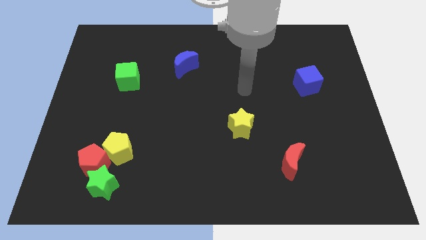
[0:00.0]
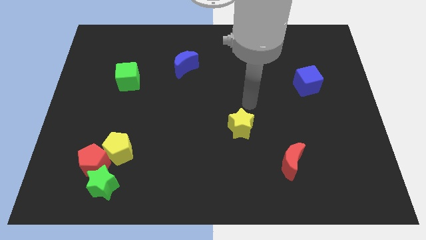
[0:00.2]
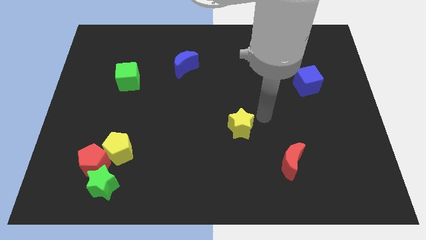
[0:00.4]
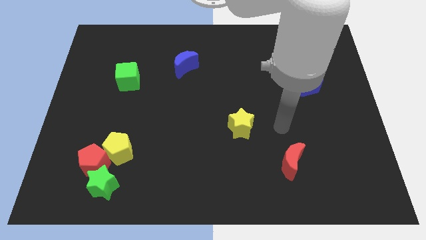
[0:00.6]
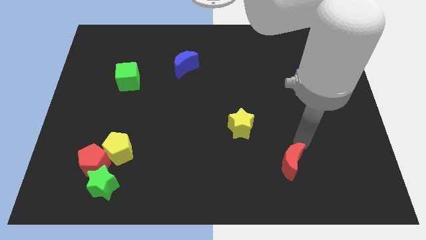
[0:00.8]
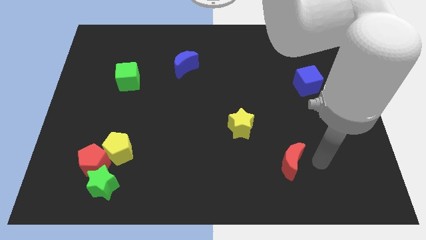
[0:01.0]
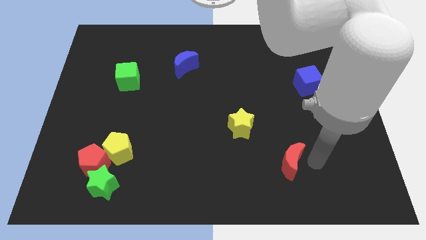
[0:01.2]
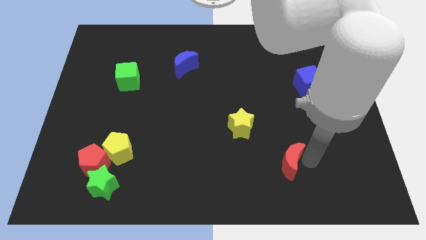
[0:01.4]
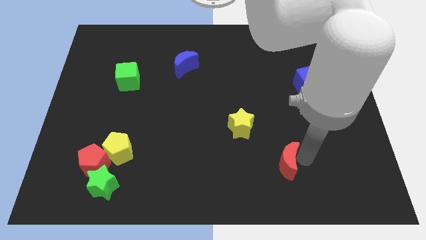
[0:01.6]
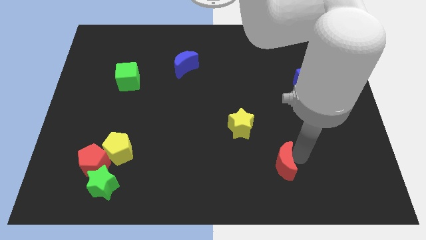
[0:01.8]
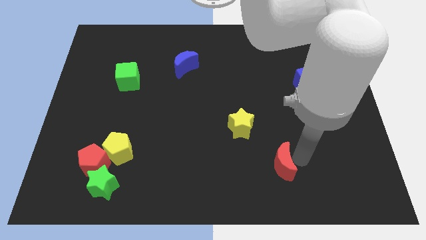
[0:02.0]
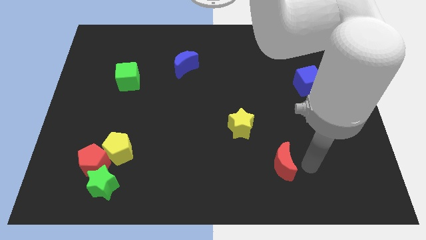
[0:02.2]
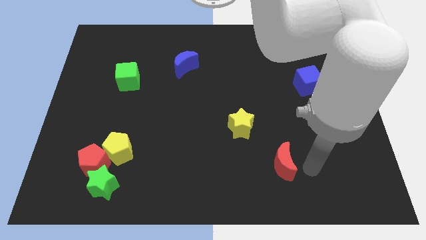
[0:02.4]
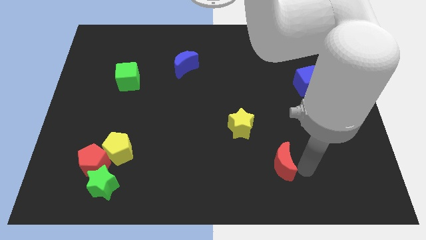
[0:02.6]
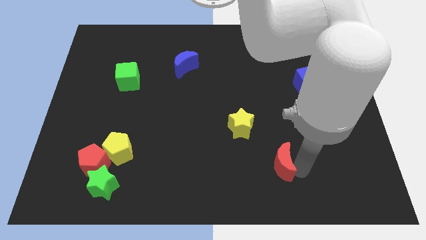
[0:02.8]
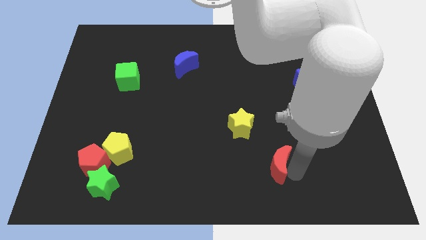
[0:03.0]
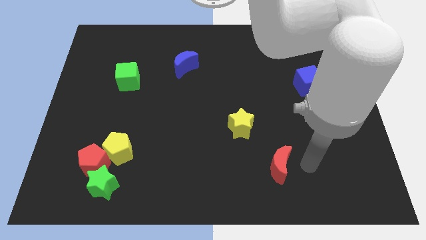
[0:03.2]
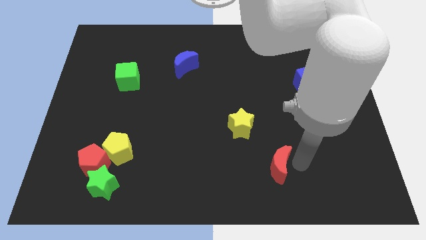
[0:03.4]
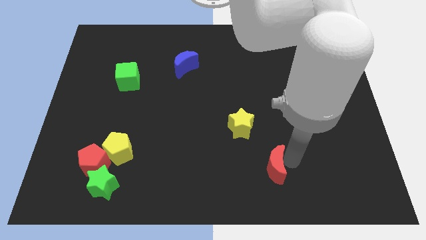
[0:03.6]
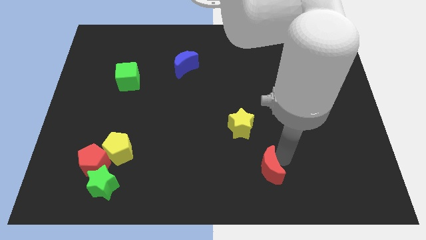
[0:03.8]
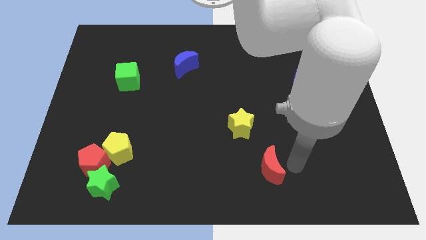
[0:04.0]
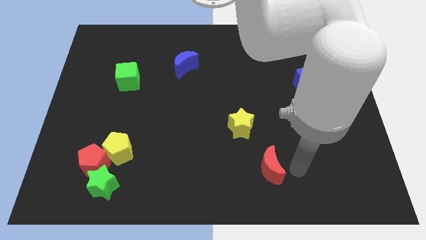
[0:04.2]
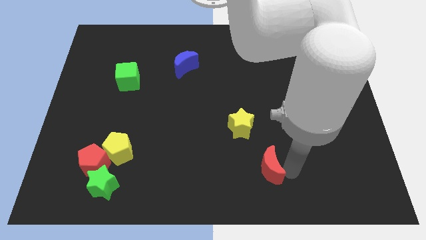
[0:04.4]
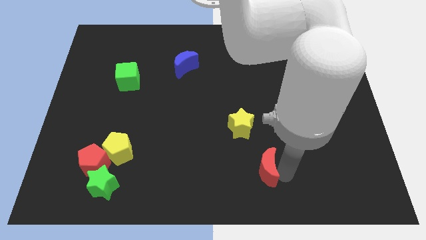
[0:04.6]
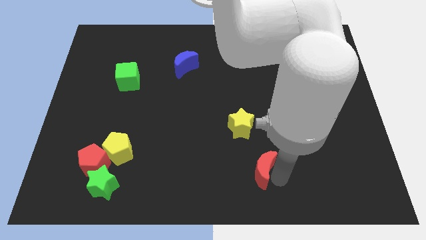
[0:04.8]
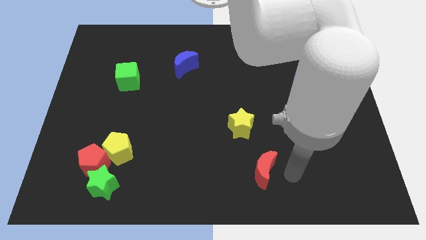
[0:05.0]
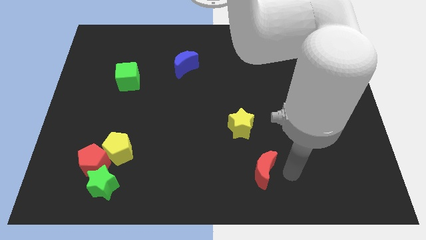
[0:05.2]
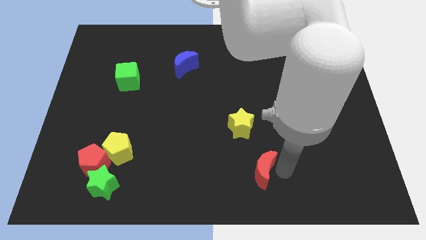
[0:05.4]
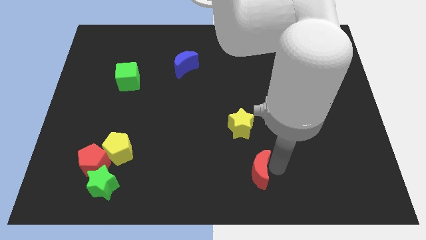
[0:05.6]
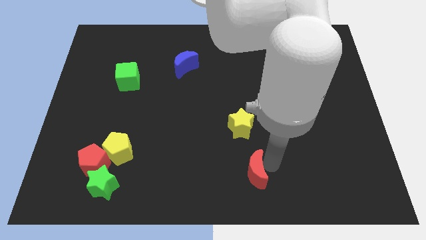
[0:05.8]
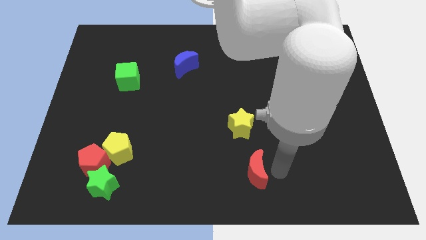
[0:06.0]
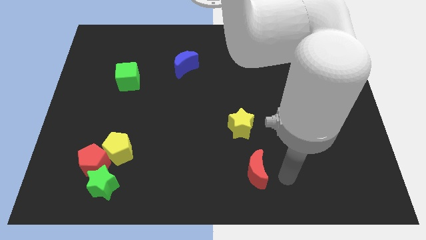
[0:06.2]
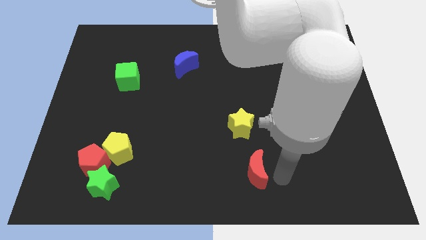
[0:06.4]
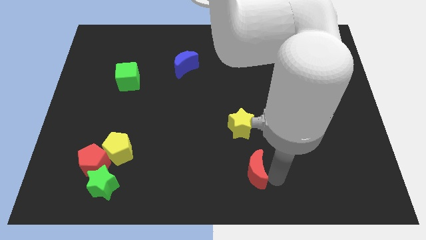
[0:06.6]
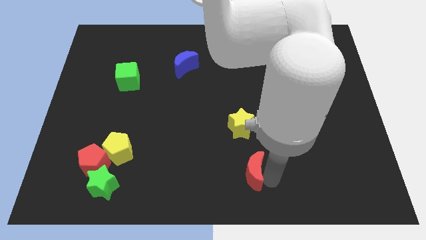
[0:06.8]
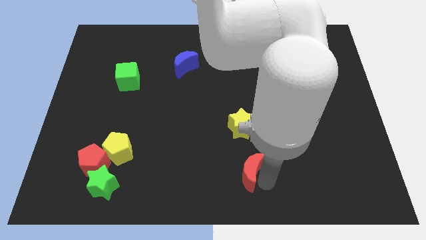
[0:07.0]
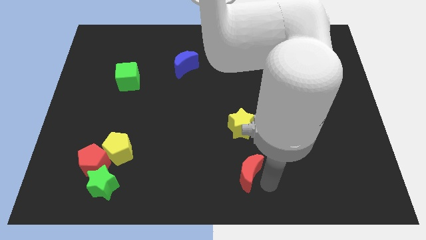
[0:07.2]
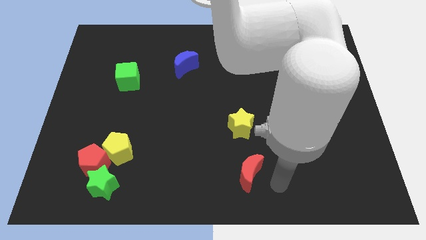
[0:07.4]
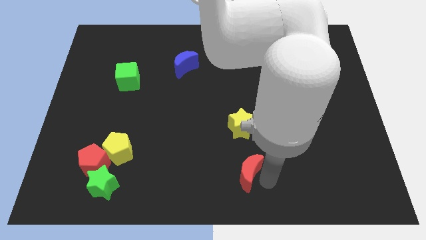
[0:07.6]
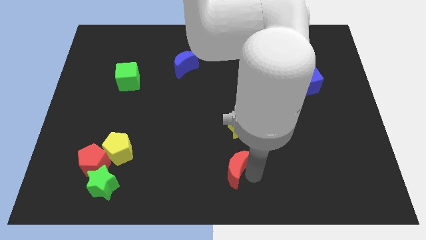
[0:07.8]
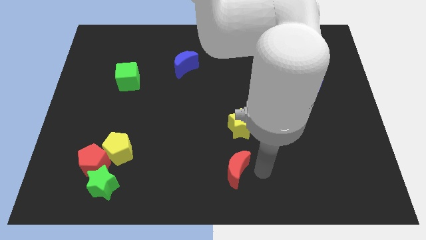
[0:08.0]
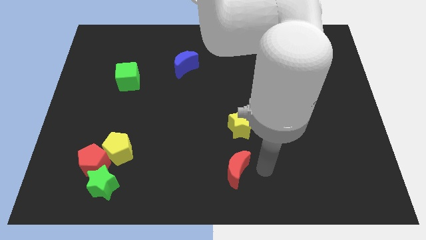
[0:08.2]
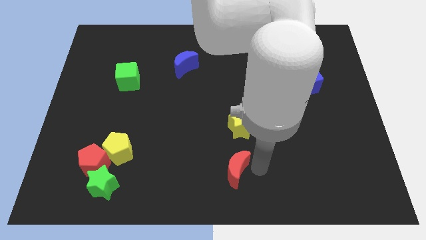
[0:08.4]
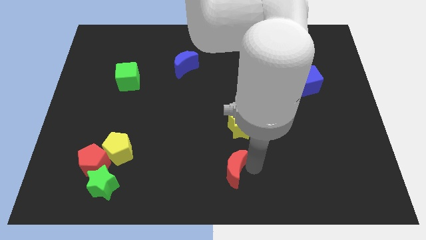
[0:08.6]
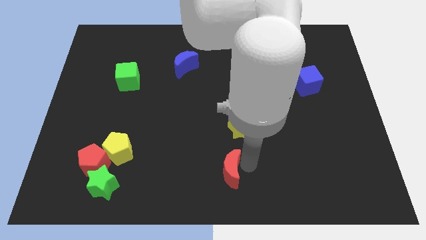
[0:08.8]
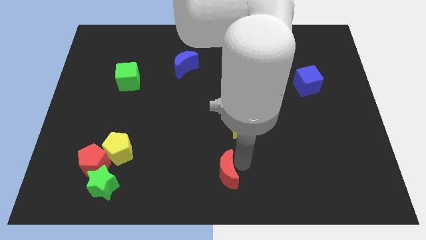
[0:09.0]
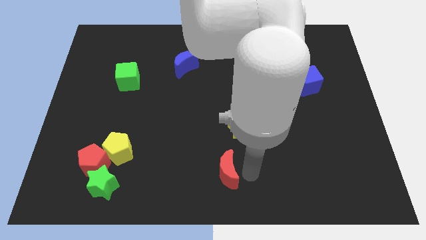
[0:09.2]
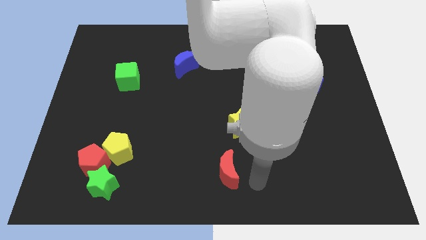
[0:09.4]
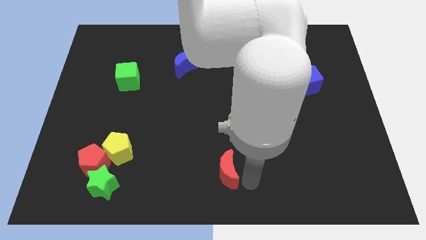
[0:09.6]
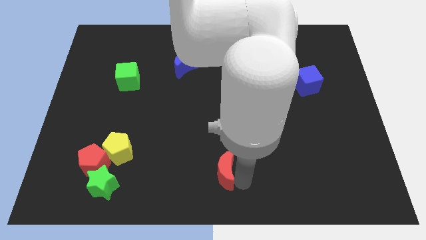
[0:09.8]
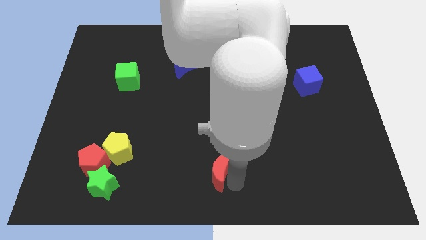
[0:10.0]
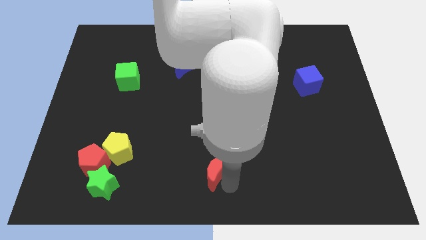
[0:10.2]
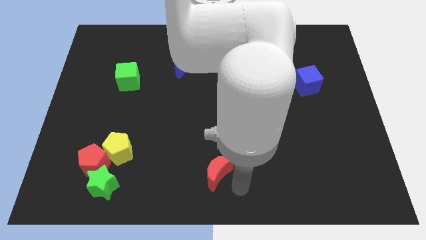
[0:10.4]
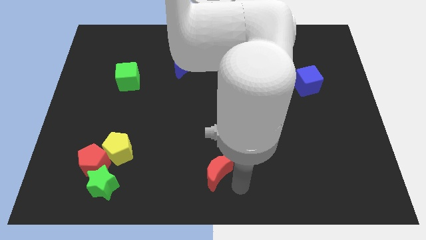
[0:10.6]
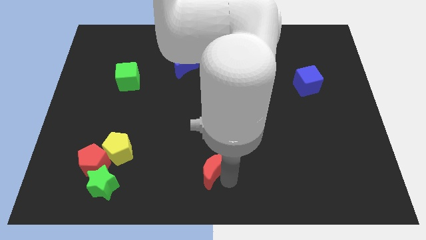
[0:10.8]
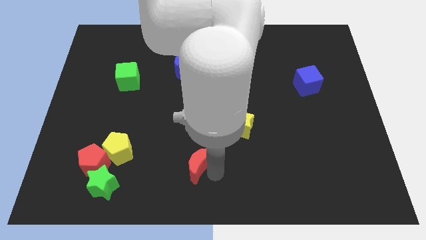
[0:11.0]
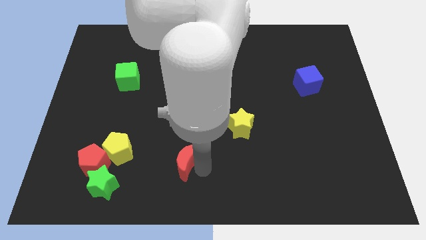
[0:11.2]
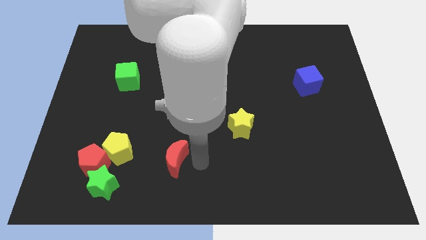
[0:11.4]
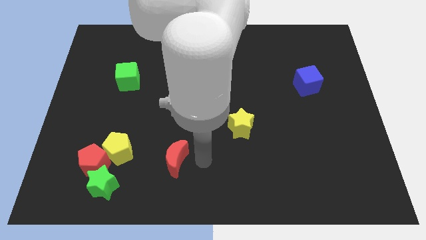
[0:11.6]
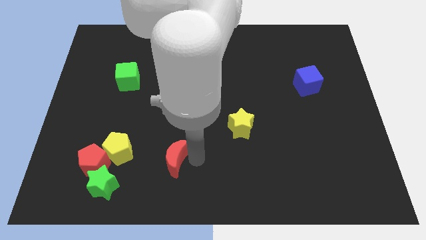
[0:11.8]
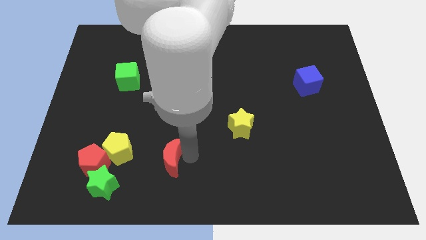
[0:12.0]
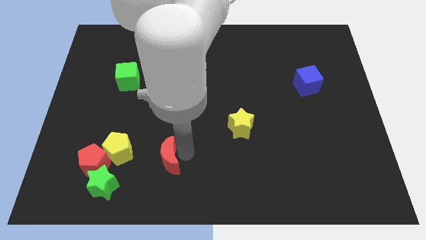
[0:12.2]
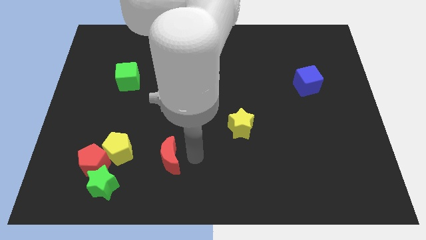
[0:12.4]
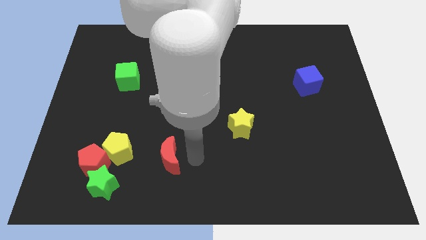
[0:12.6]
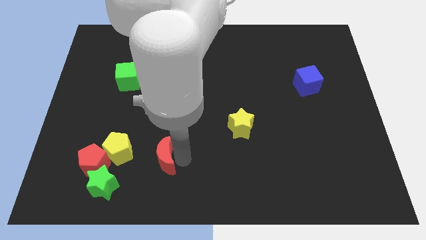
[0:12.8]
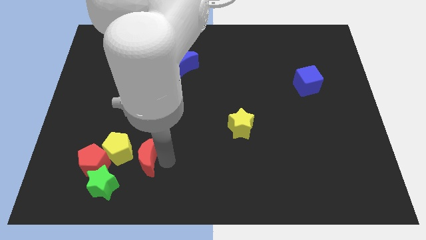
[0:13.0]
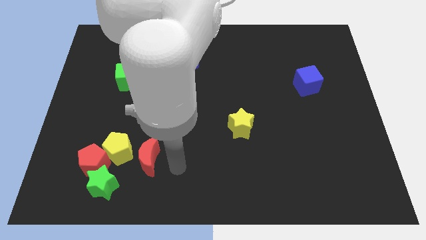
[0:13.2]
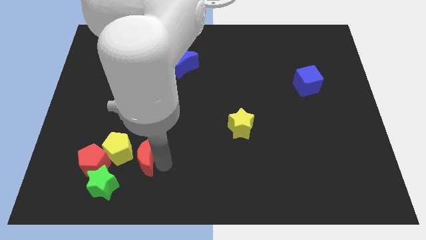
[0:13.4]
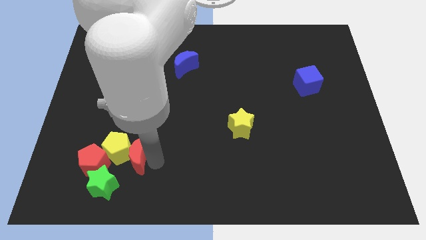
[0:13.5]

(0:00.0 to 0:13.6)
put the red moon to the yellow pentagon

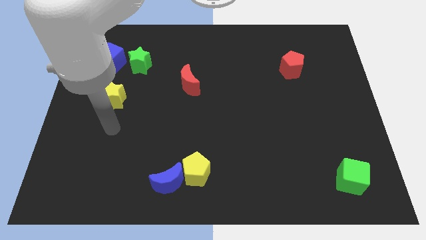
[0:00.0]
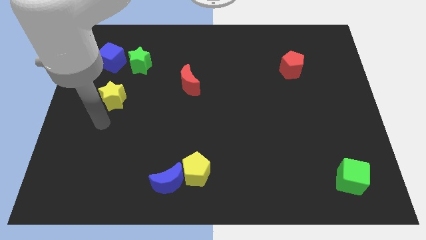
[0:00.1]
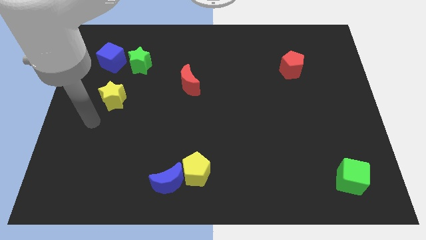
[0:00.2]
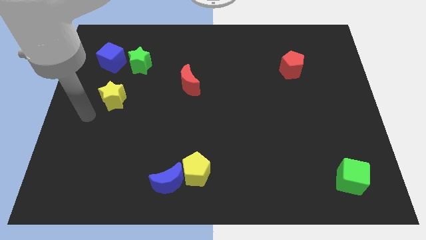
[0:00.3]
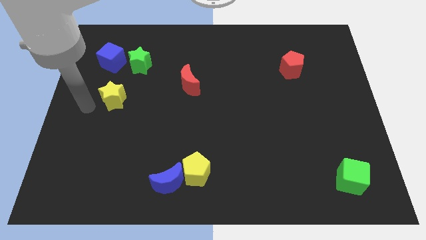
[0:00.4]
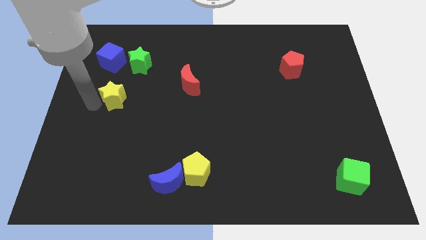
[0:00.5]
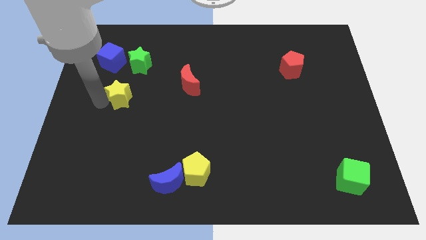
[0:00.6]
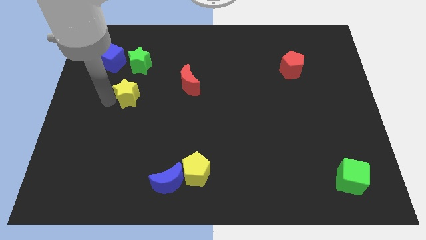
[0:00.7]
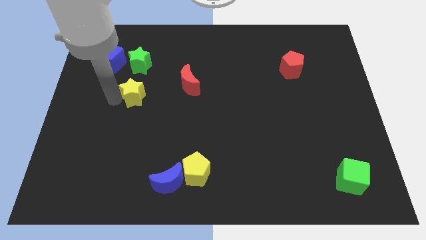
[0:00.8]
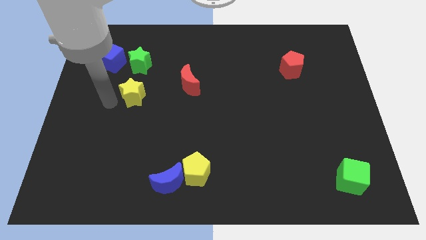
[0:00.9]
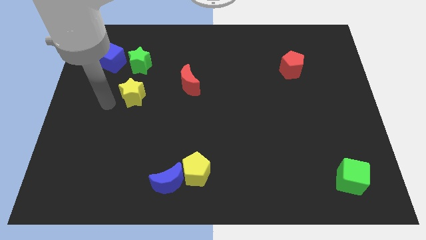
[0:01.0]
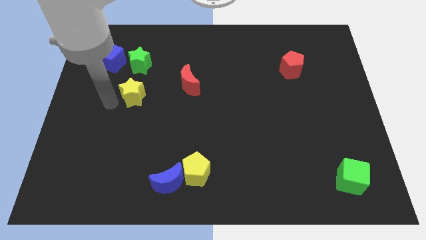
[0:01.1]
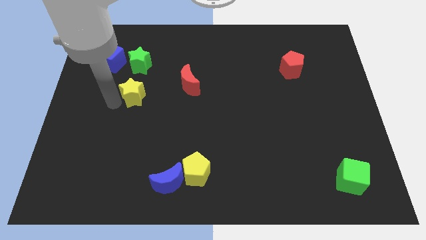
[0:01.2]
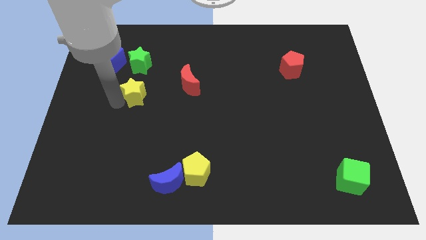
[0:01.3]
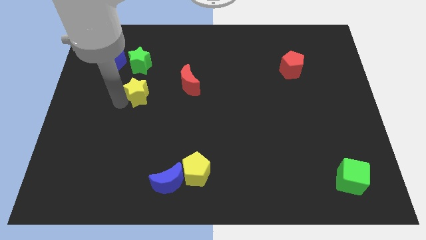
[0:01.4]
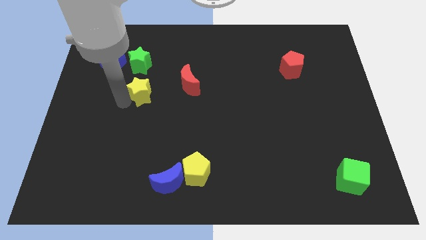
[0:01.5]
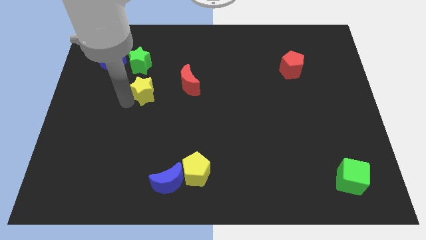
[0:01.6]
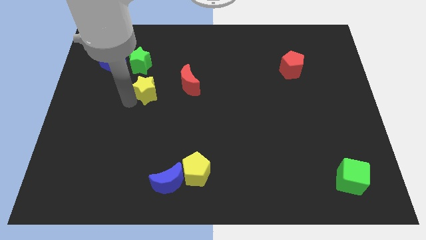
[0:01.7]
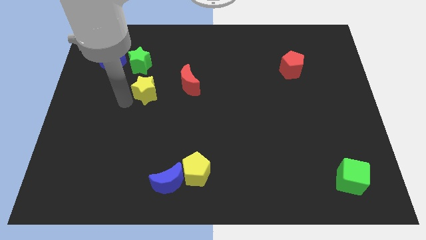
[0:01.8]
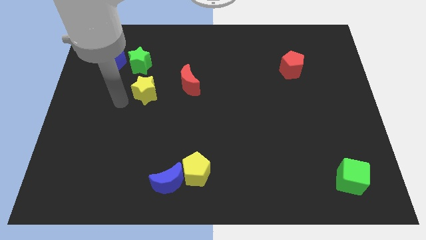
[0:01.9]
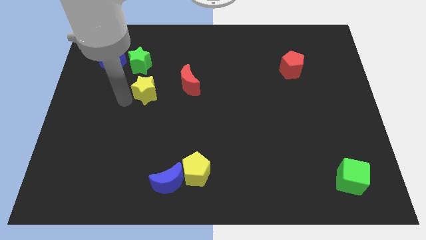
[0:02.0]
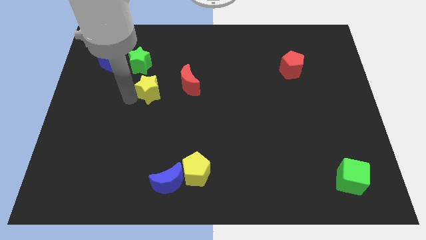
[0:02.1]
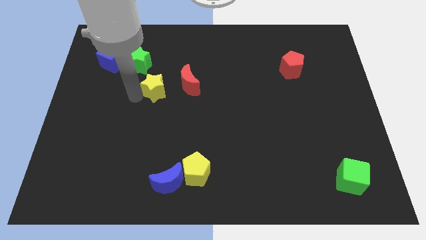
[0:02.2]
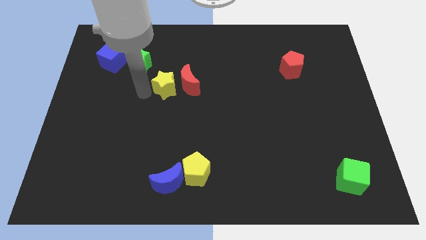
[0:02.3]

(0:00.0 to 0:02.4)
move the yellow star close to the red moon
